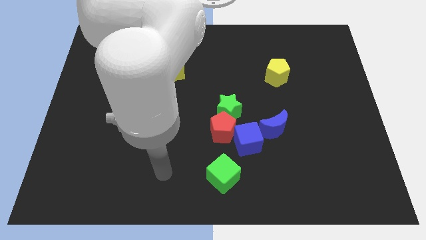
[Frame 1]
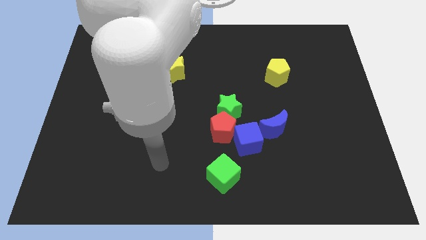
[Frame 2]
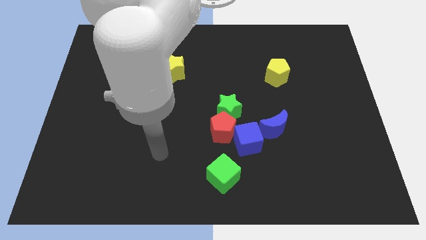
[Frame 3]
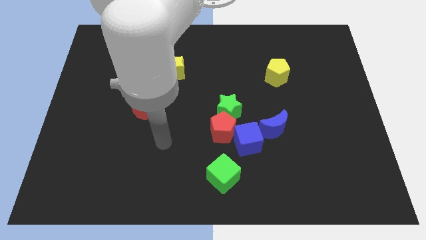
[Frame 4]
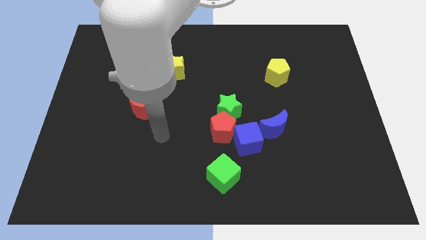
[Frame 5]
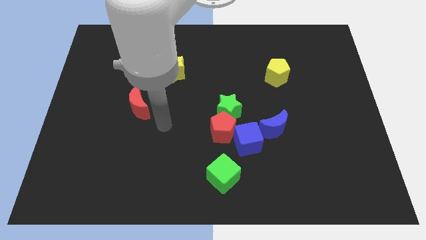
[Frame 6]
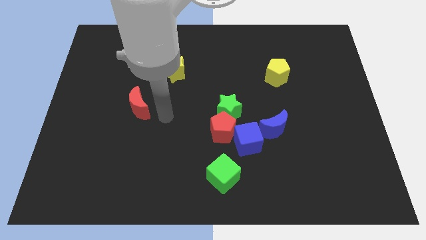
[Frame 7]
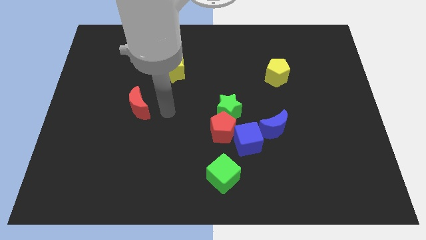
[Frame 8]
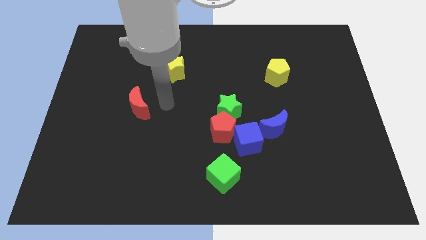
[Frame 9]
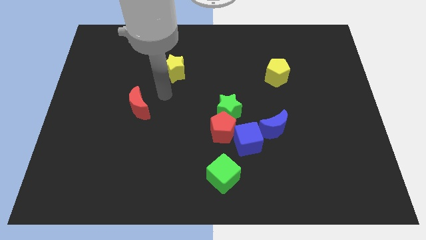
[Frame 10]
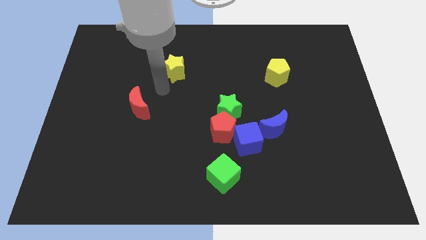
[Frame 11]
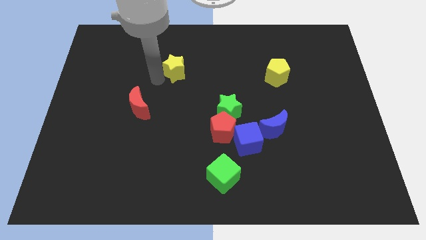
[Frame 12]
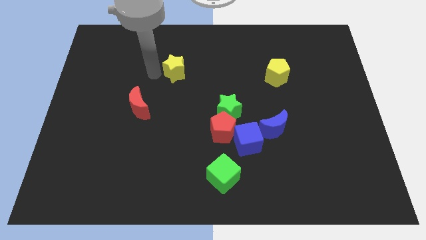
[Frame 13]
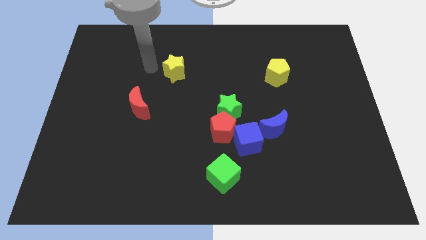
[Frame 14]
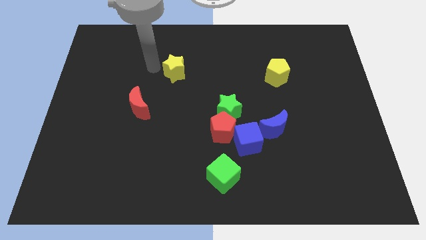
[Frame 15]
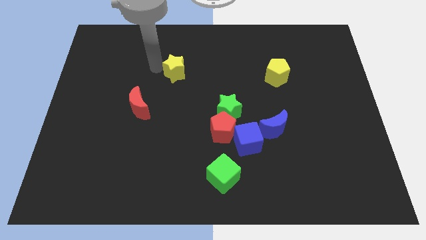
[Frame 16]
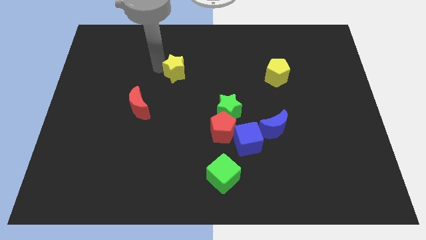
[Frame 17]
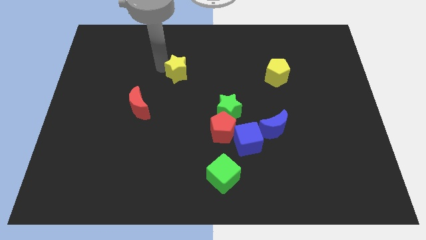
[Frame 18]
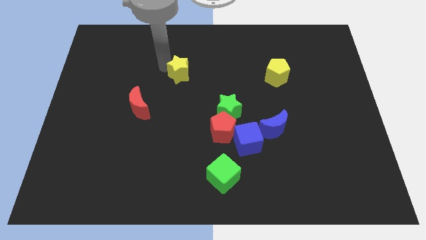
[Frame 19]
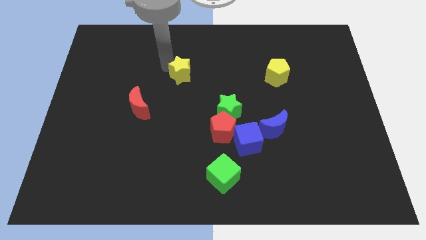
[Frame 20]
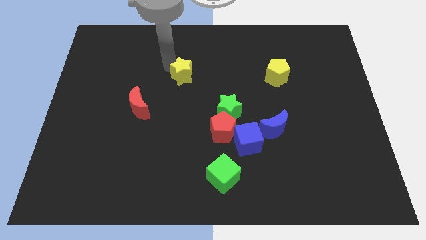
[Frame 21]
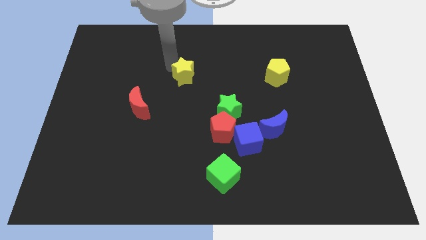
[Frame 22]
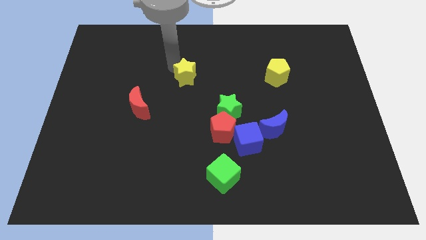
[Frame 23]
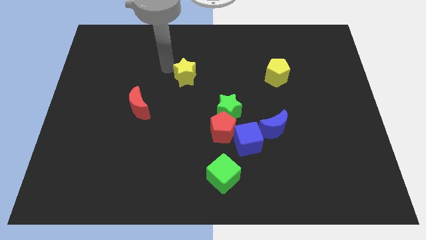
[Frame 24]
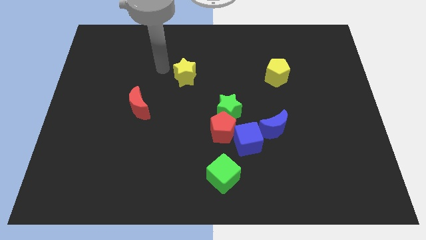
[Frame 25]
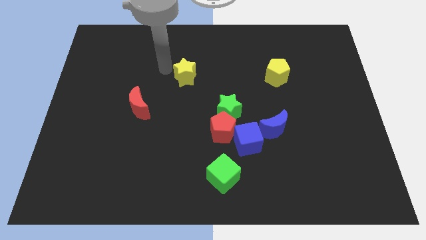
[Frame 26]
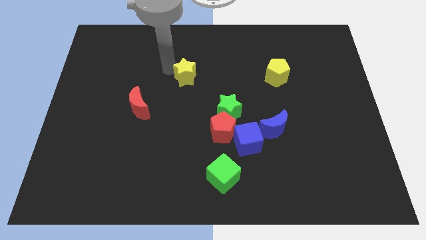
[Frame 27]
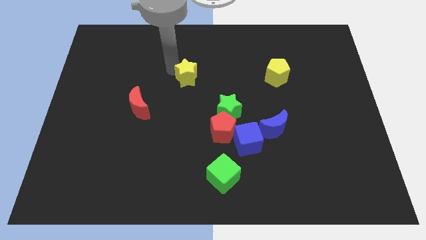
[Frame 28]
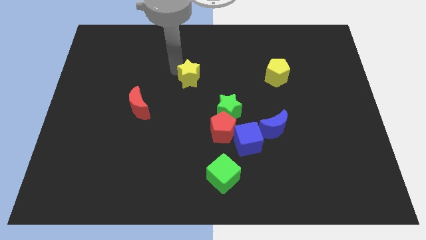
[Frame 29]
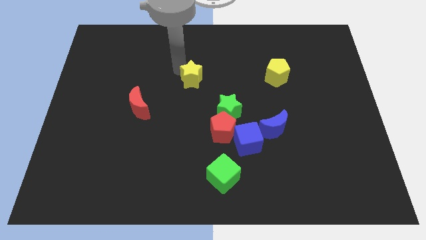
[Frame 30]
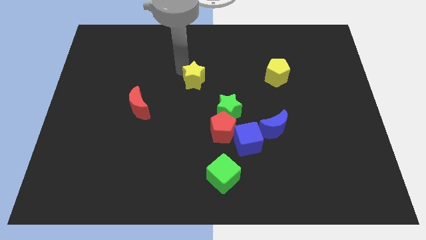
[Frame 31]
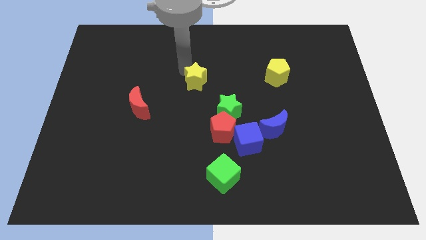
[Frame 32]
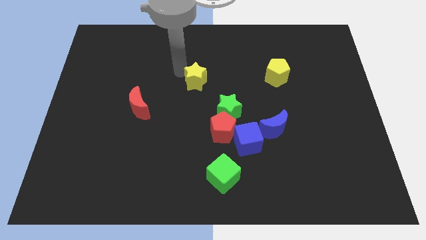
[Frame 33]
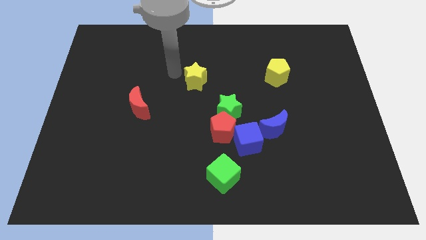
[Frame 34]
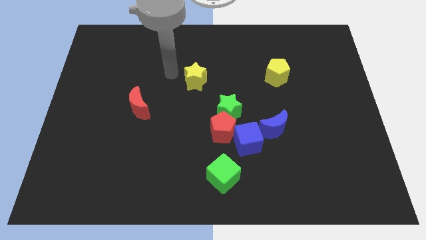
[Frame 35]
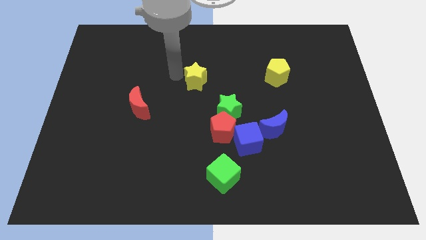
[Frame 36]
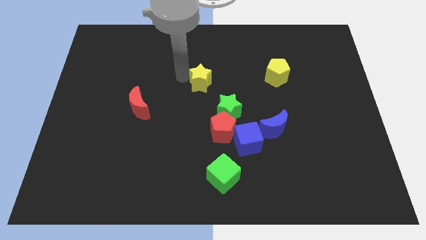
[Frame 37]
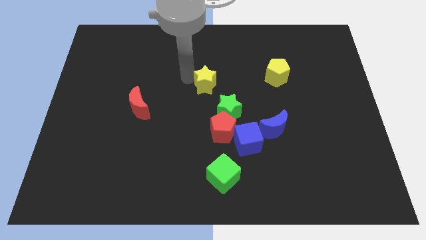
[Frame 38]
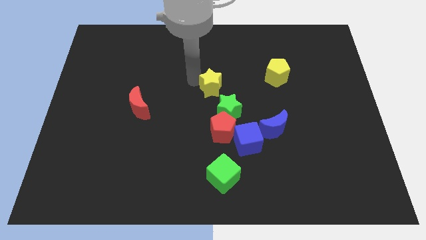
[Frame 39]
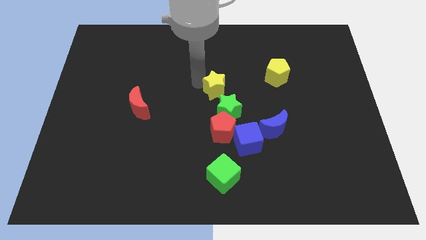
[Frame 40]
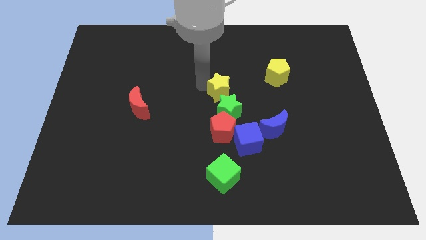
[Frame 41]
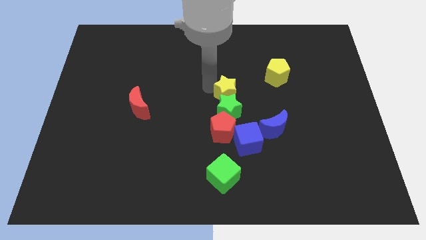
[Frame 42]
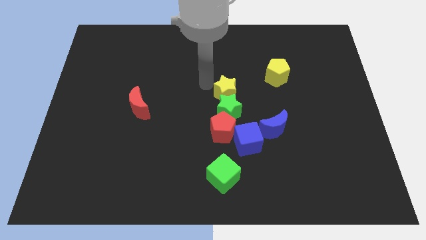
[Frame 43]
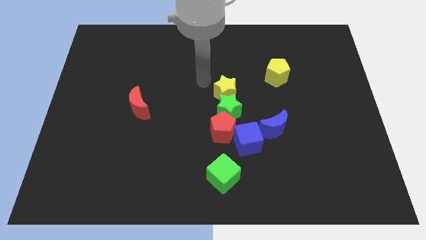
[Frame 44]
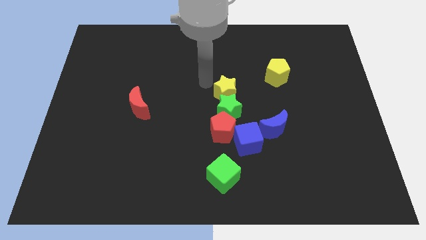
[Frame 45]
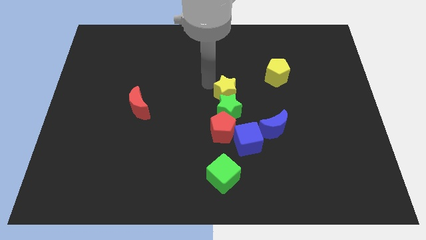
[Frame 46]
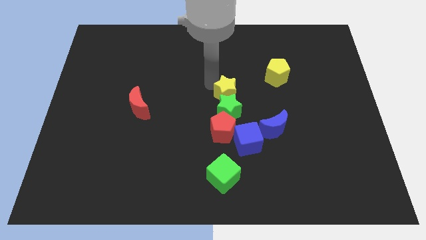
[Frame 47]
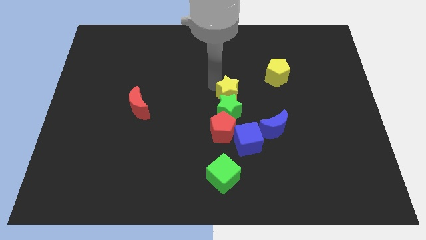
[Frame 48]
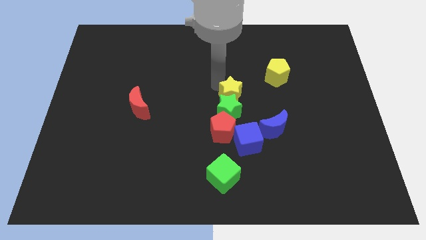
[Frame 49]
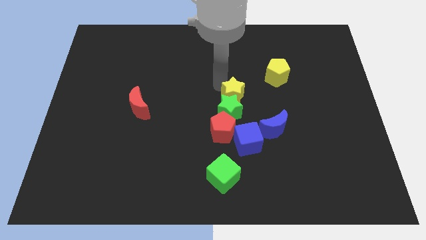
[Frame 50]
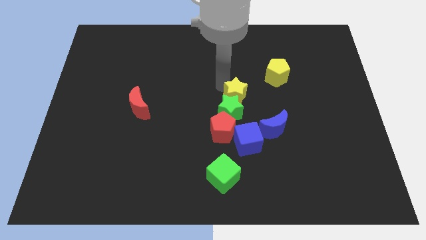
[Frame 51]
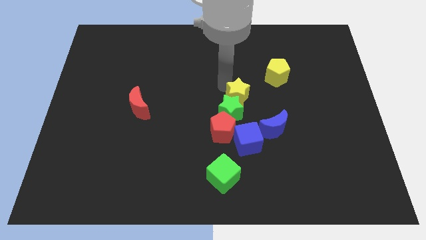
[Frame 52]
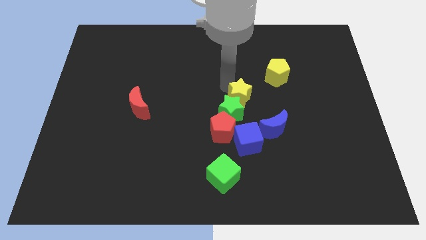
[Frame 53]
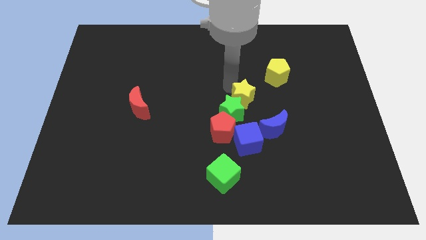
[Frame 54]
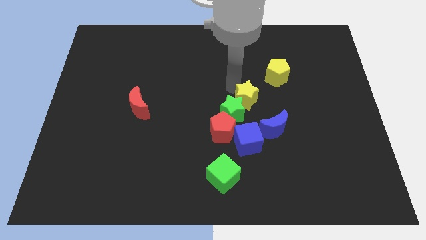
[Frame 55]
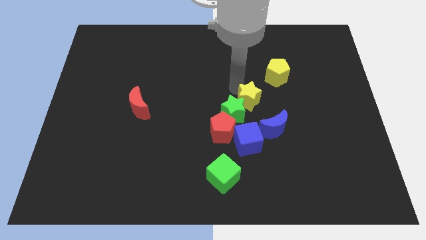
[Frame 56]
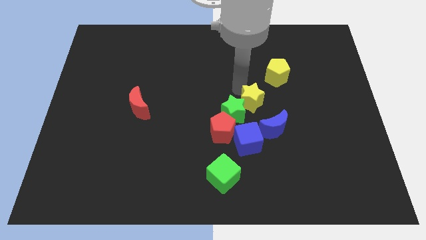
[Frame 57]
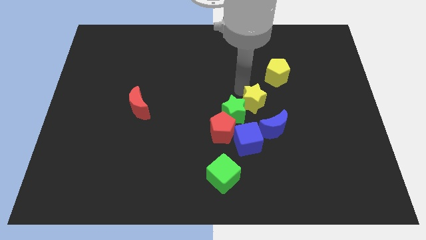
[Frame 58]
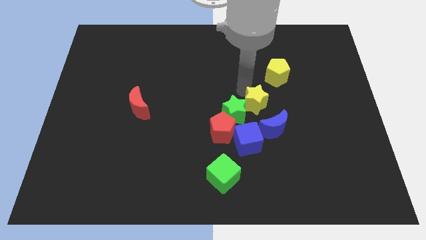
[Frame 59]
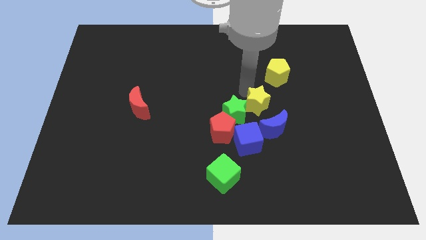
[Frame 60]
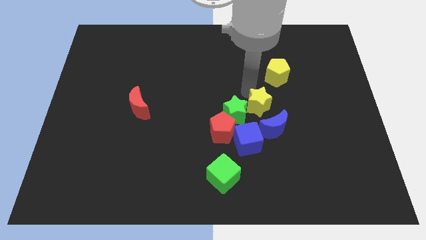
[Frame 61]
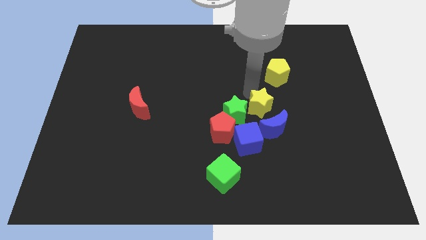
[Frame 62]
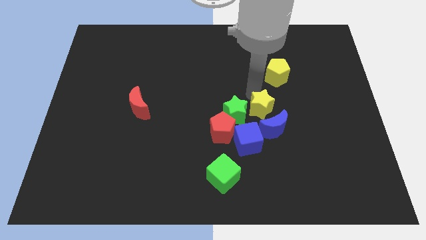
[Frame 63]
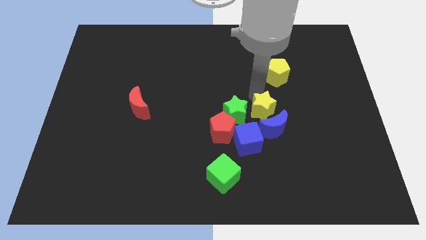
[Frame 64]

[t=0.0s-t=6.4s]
push the yellow star towards the blue moon
